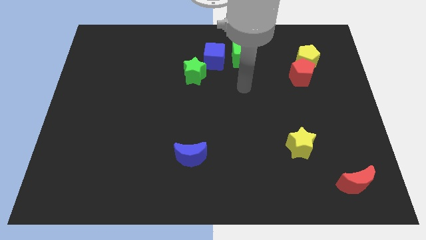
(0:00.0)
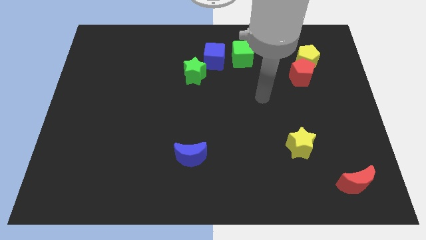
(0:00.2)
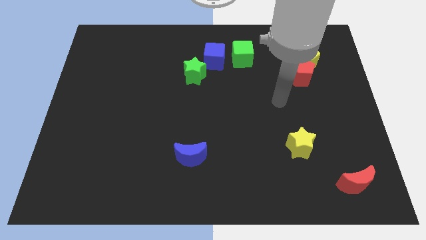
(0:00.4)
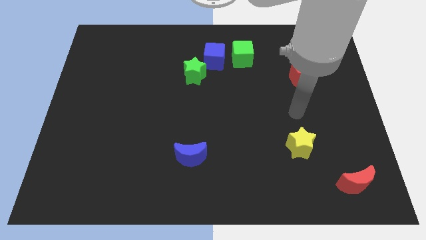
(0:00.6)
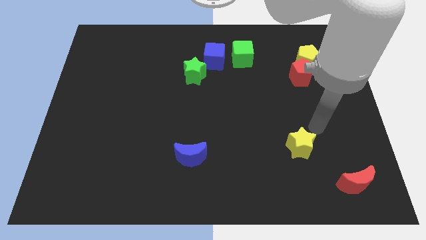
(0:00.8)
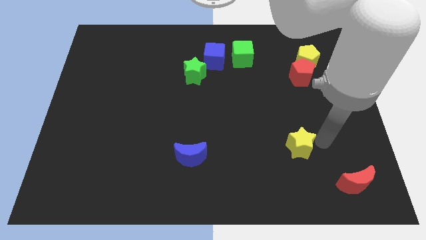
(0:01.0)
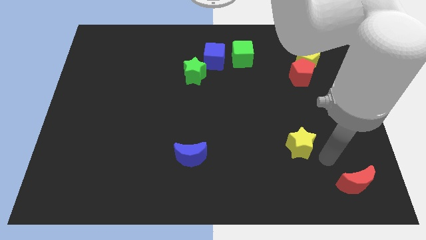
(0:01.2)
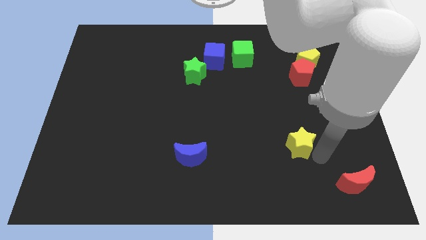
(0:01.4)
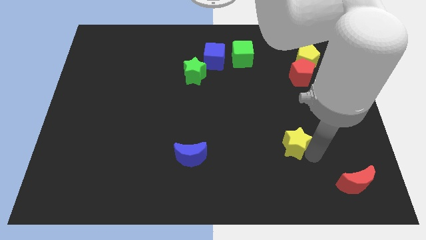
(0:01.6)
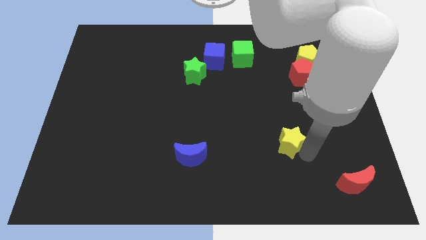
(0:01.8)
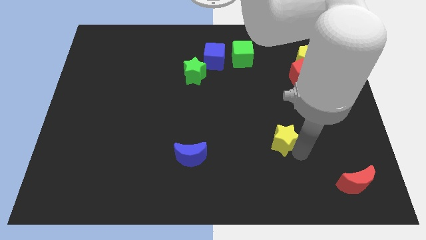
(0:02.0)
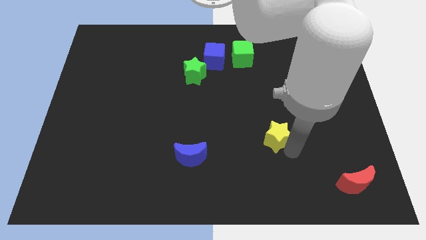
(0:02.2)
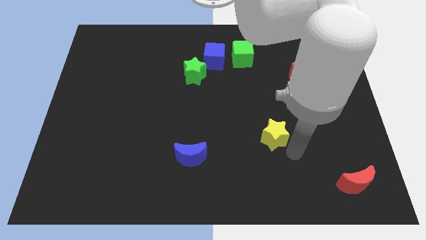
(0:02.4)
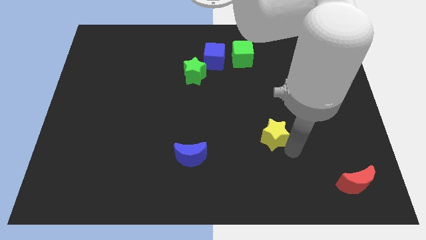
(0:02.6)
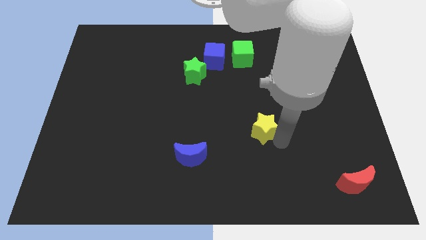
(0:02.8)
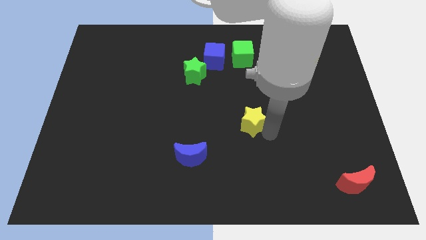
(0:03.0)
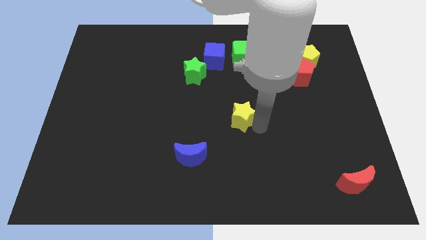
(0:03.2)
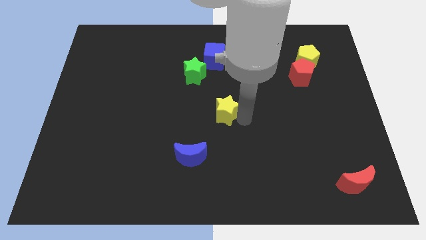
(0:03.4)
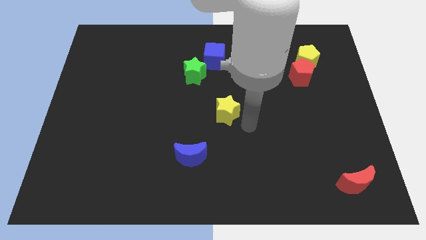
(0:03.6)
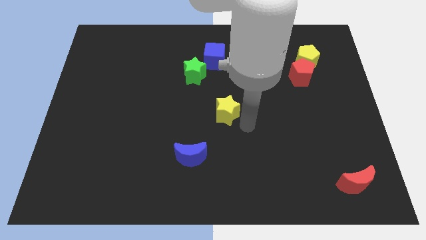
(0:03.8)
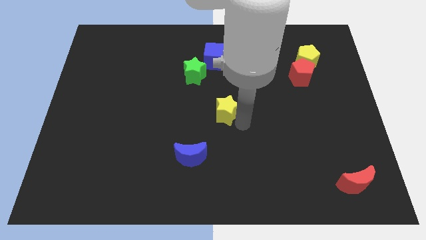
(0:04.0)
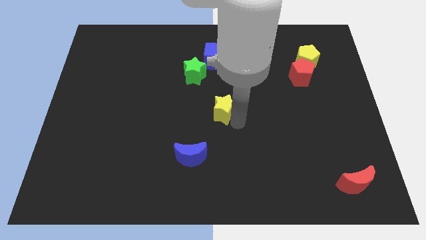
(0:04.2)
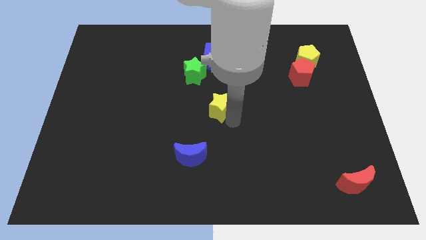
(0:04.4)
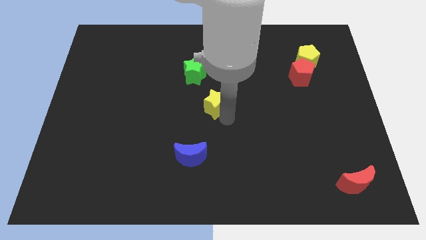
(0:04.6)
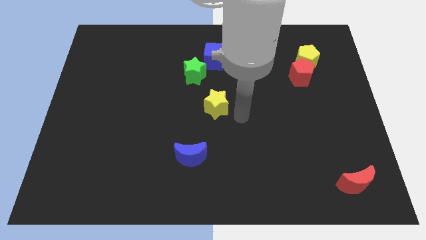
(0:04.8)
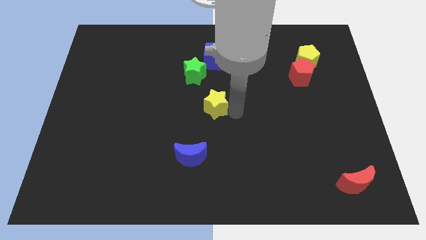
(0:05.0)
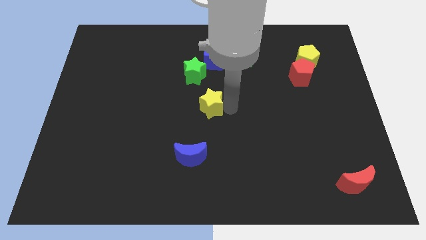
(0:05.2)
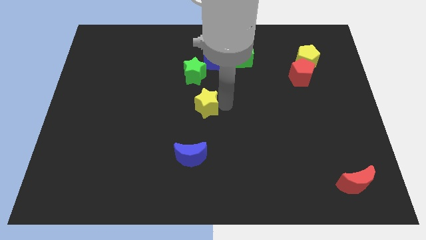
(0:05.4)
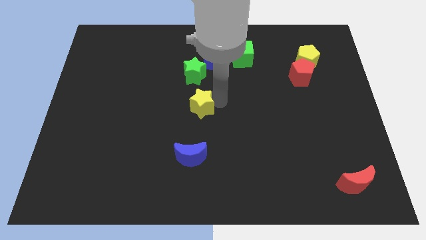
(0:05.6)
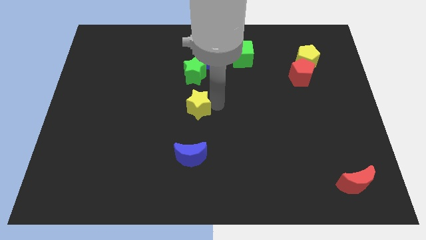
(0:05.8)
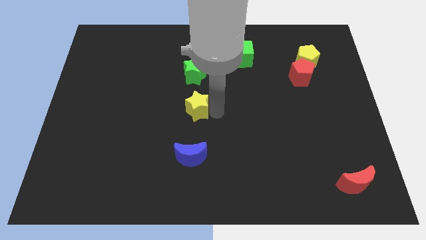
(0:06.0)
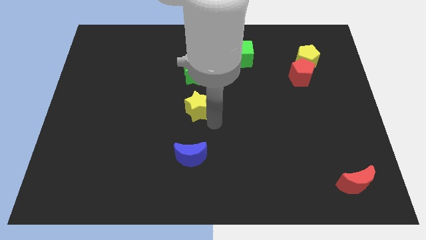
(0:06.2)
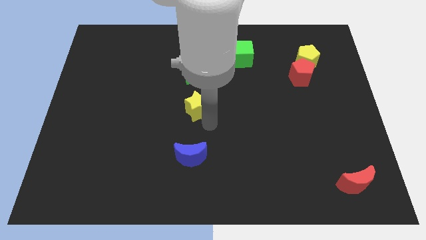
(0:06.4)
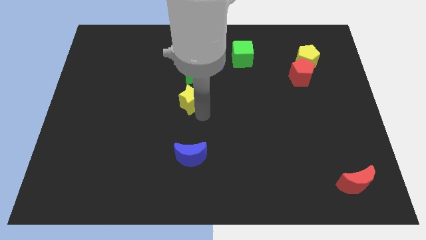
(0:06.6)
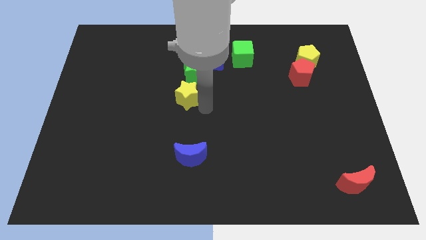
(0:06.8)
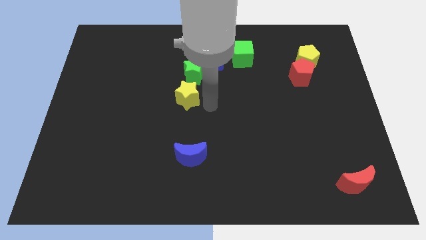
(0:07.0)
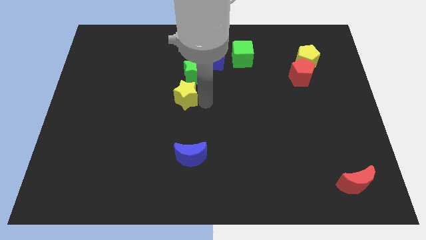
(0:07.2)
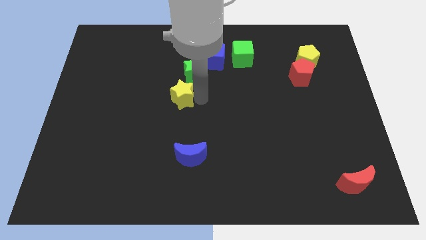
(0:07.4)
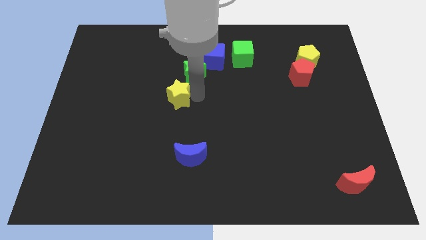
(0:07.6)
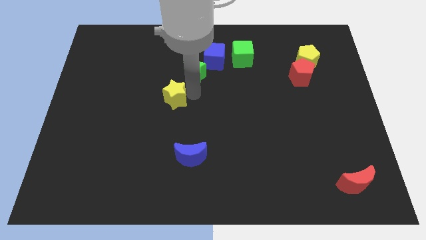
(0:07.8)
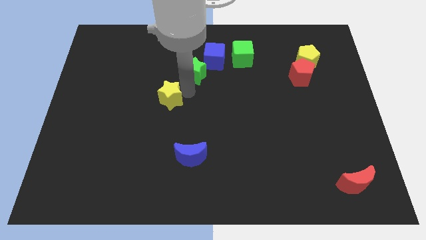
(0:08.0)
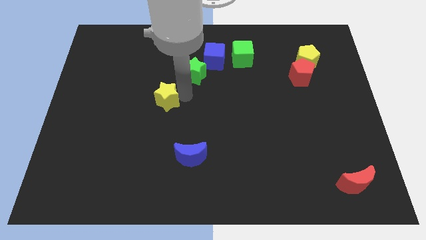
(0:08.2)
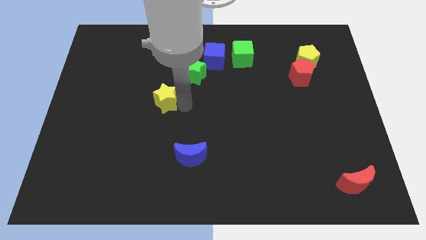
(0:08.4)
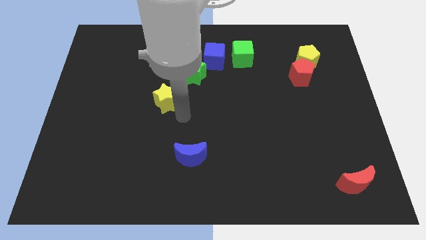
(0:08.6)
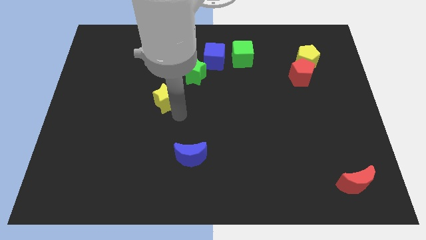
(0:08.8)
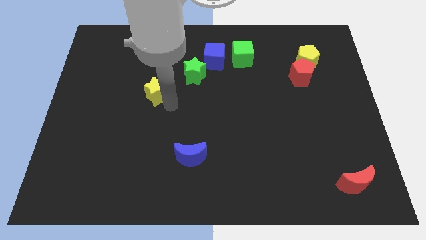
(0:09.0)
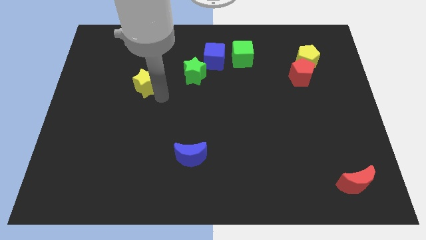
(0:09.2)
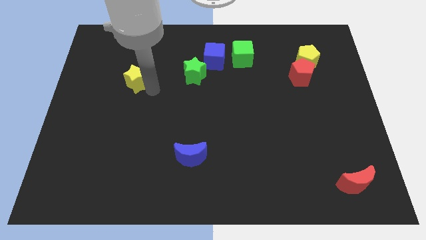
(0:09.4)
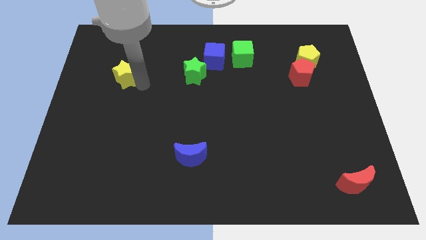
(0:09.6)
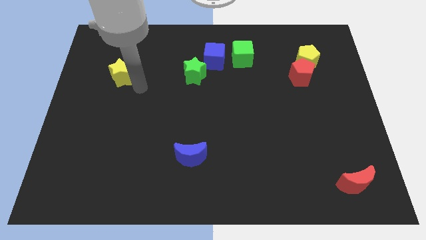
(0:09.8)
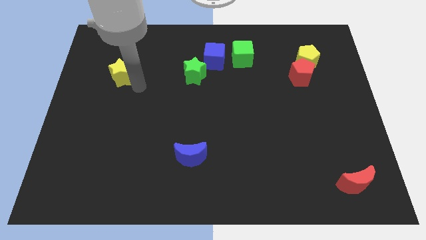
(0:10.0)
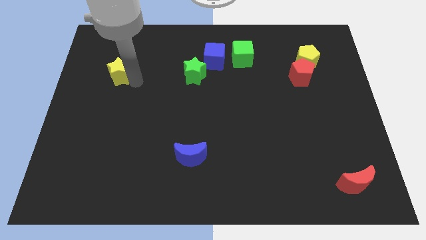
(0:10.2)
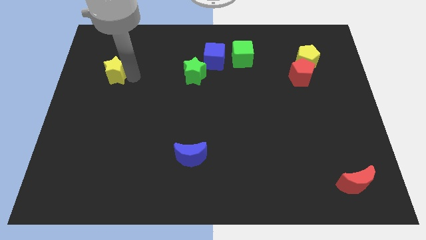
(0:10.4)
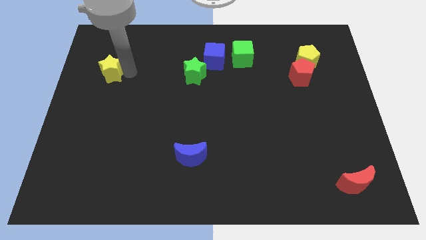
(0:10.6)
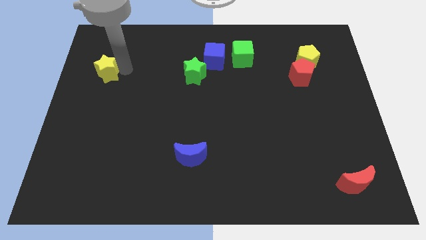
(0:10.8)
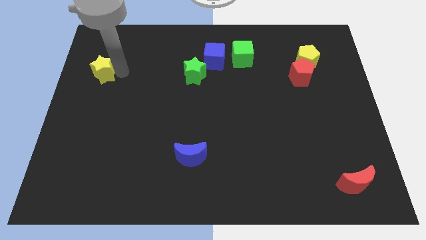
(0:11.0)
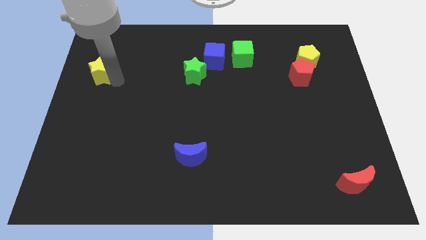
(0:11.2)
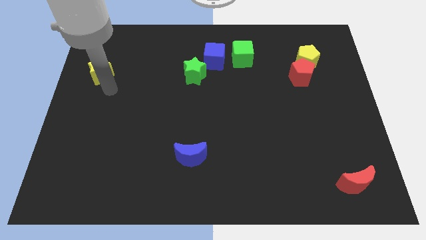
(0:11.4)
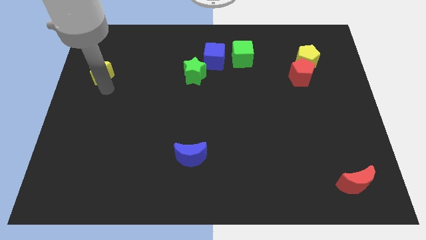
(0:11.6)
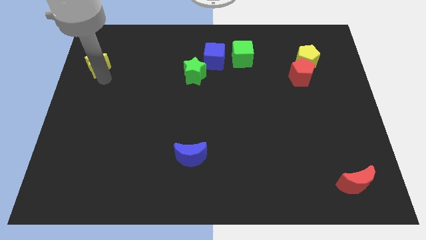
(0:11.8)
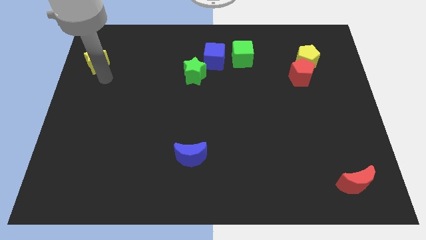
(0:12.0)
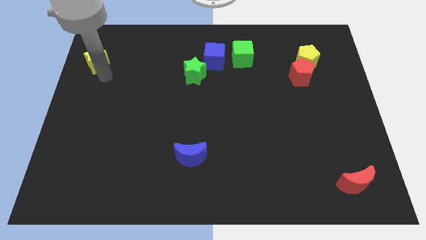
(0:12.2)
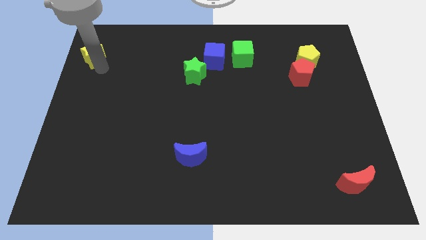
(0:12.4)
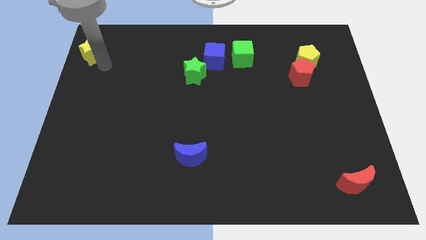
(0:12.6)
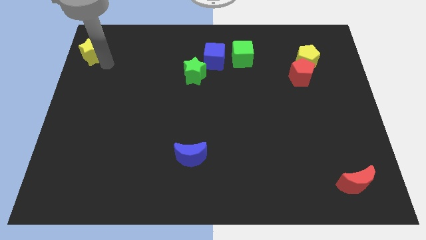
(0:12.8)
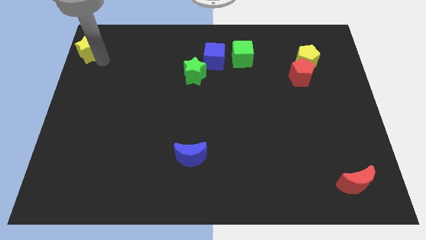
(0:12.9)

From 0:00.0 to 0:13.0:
push the yellow star to the upper left corner

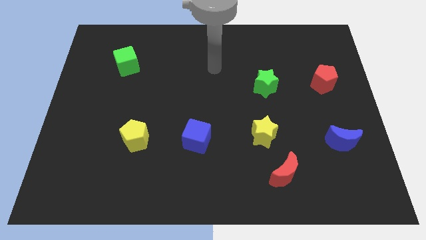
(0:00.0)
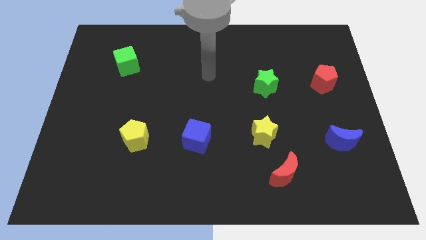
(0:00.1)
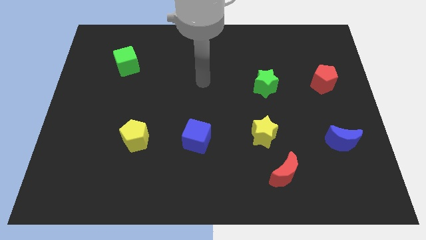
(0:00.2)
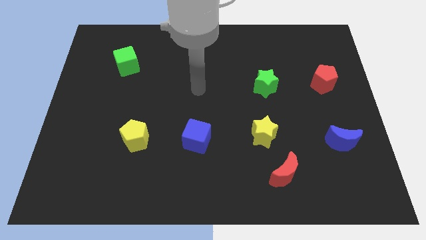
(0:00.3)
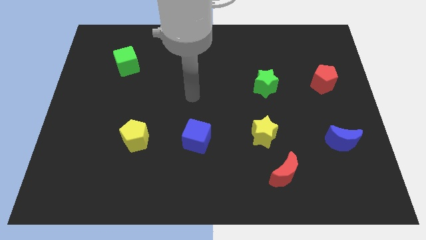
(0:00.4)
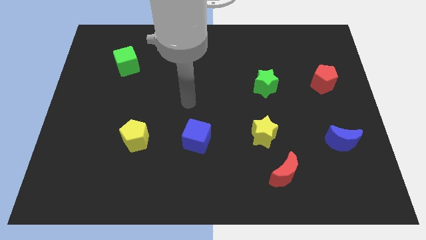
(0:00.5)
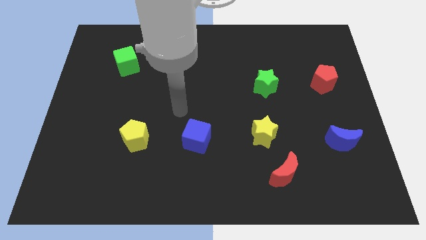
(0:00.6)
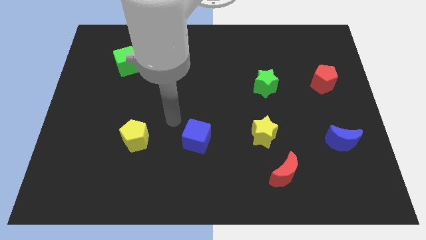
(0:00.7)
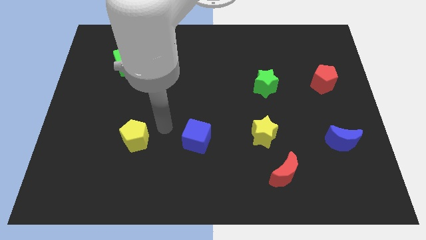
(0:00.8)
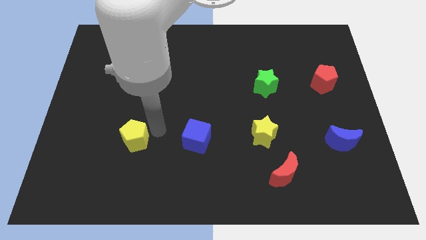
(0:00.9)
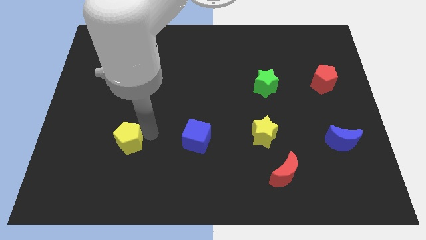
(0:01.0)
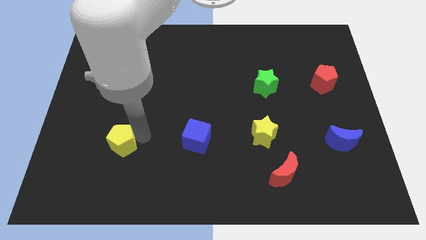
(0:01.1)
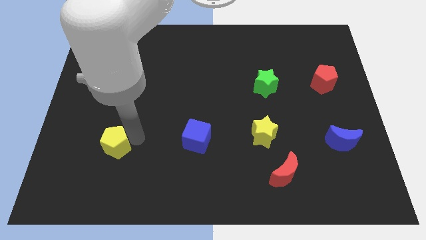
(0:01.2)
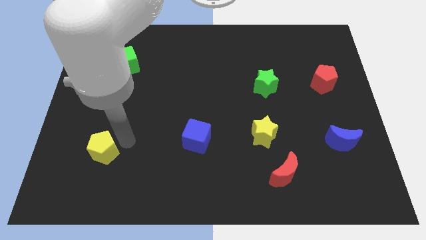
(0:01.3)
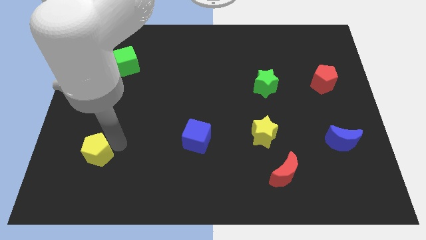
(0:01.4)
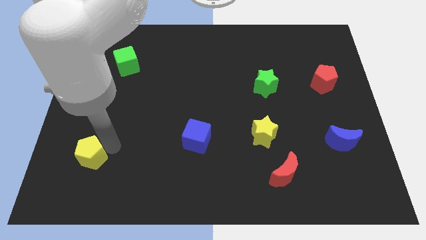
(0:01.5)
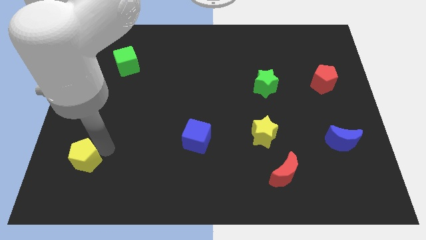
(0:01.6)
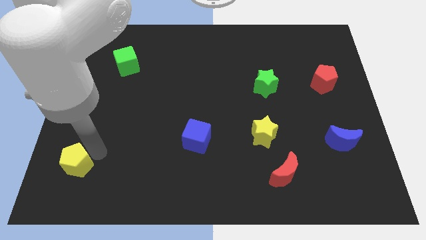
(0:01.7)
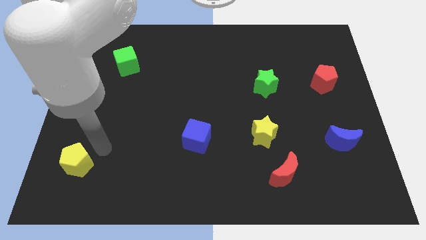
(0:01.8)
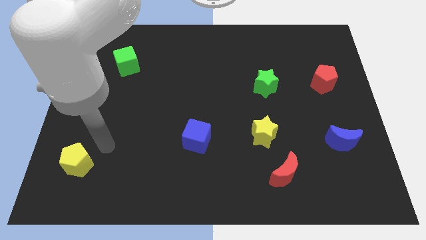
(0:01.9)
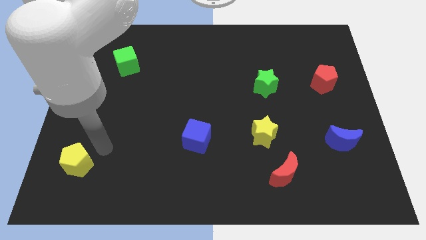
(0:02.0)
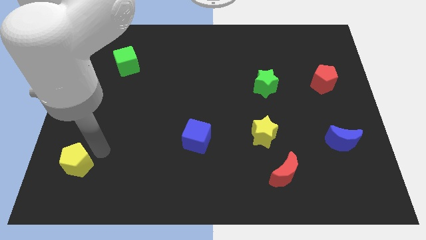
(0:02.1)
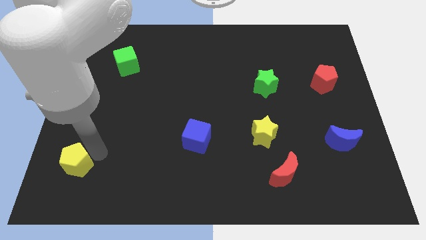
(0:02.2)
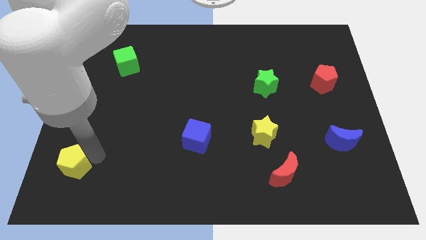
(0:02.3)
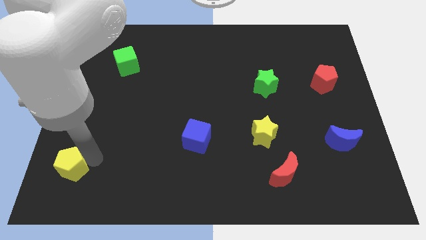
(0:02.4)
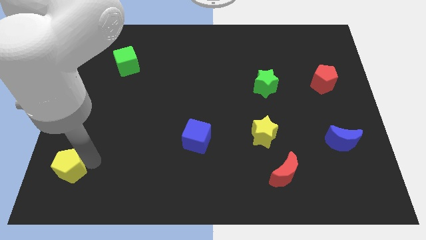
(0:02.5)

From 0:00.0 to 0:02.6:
put the yellow pentagon to the lower left corner
